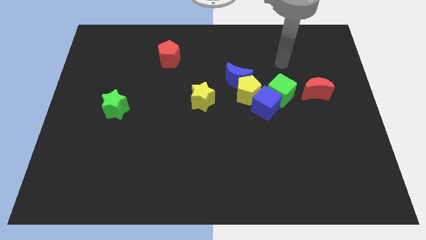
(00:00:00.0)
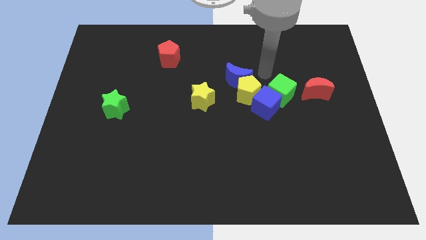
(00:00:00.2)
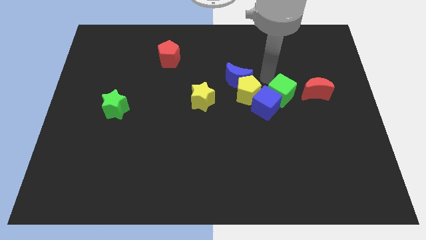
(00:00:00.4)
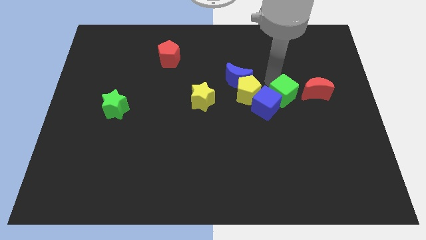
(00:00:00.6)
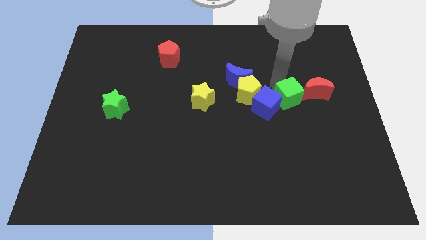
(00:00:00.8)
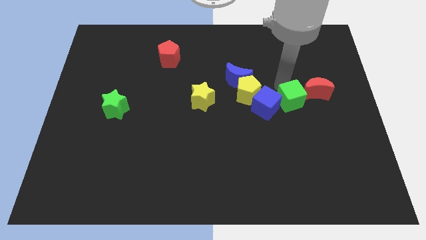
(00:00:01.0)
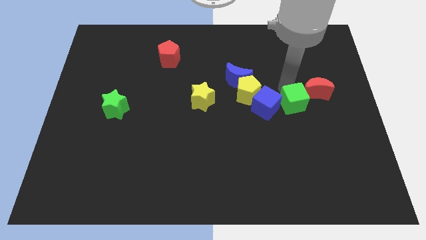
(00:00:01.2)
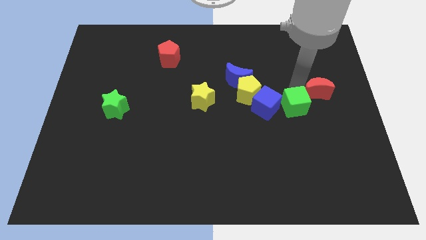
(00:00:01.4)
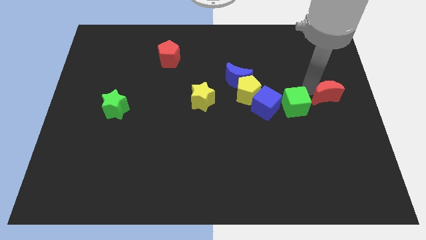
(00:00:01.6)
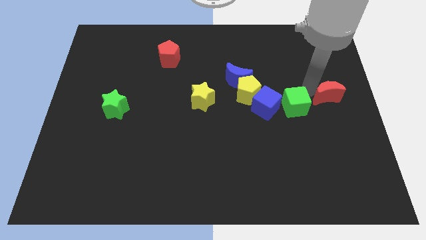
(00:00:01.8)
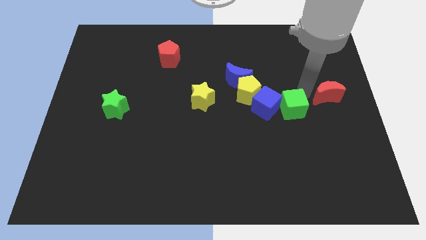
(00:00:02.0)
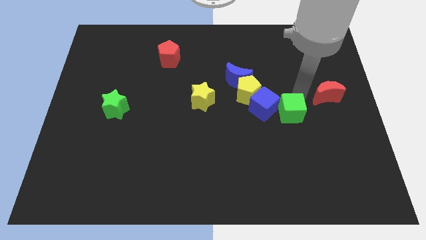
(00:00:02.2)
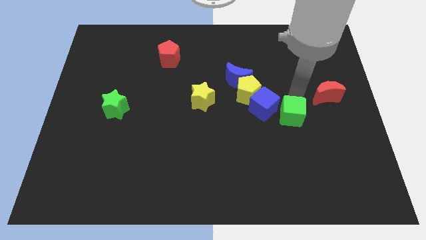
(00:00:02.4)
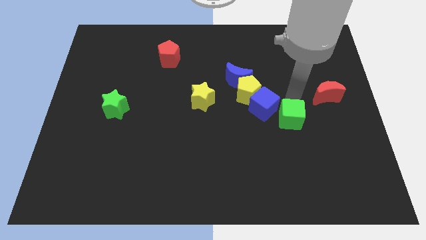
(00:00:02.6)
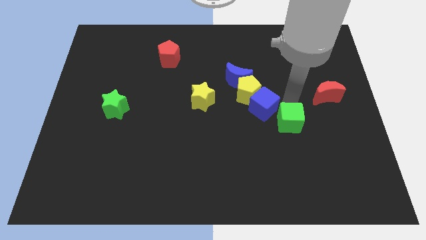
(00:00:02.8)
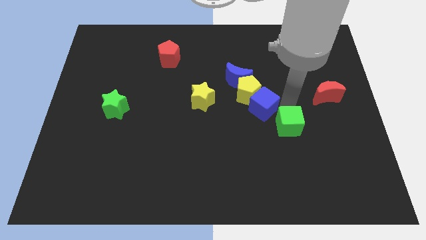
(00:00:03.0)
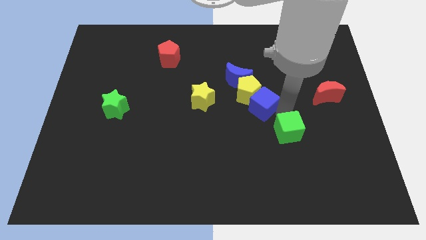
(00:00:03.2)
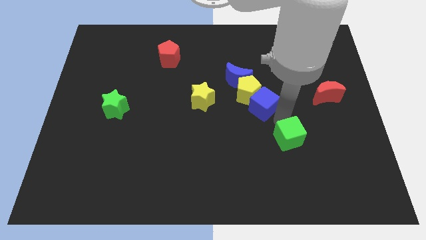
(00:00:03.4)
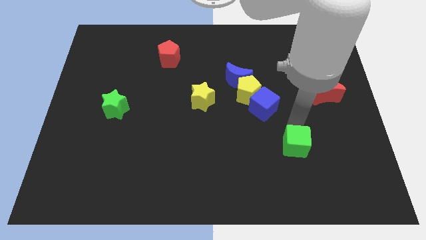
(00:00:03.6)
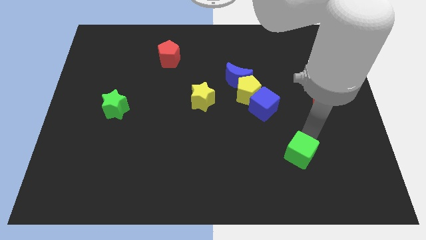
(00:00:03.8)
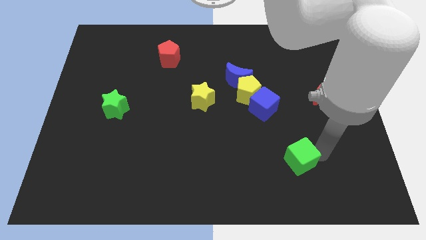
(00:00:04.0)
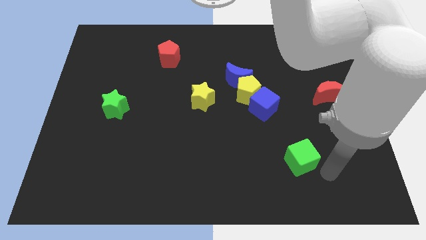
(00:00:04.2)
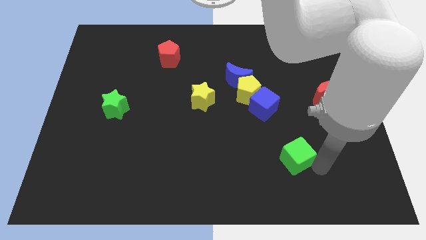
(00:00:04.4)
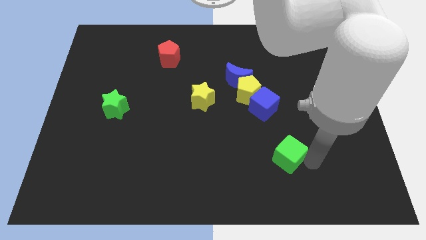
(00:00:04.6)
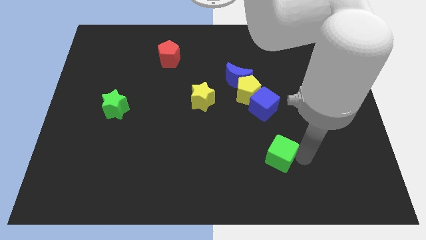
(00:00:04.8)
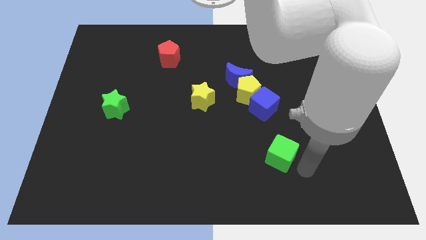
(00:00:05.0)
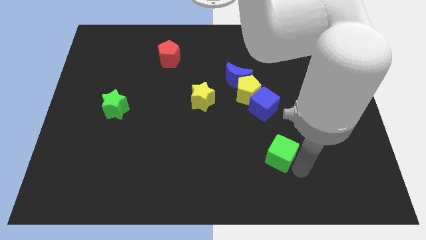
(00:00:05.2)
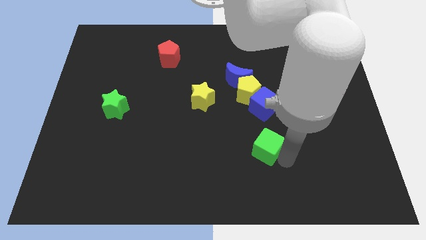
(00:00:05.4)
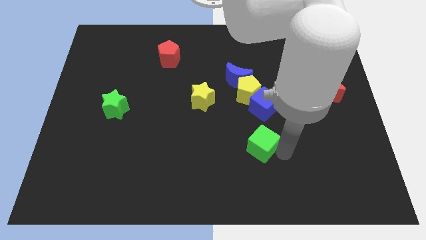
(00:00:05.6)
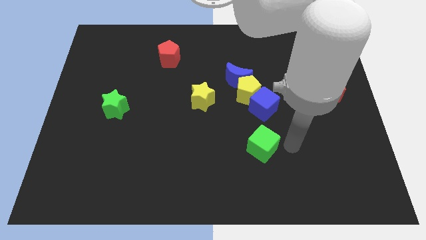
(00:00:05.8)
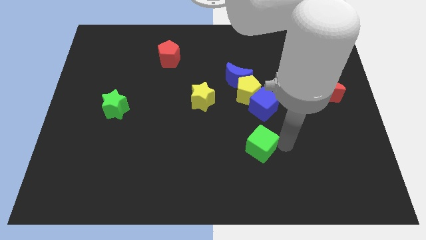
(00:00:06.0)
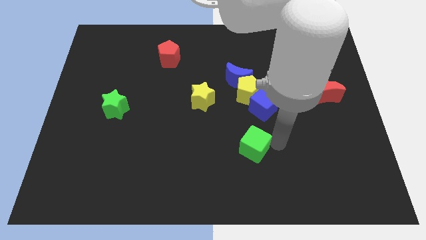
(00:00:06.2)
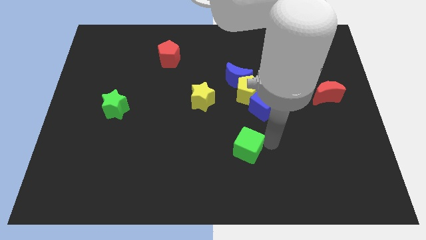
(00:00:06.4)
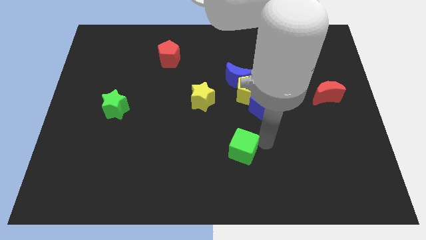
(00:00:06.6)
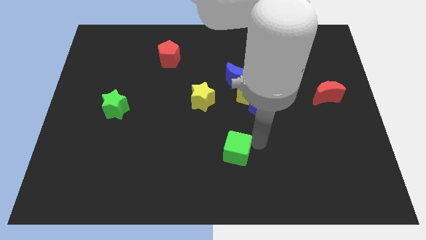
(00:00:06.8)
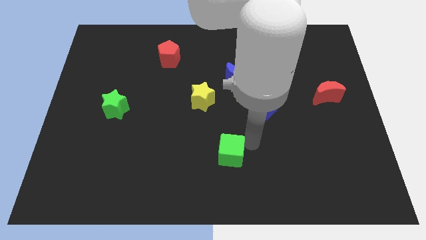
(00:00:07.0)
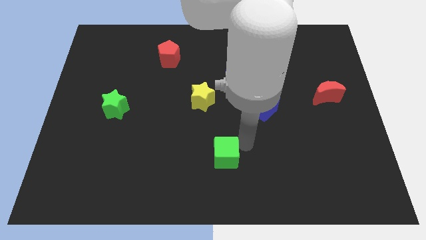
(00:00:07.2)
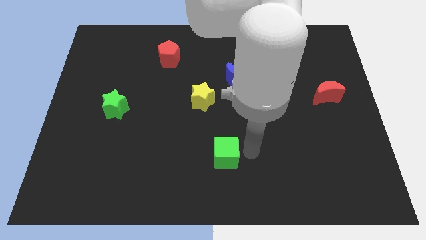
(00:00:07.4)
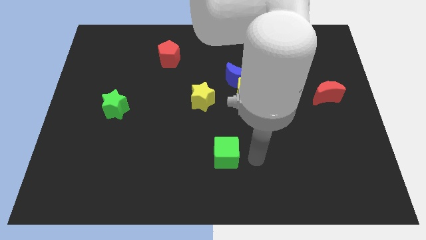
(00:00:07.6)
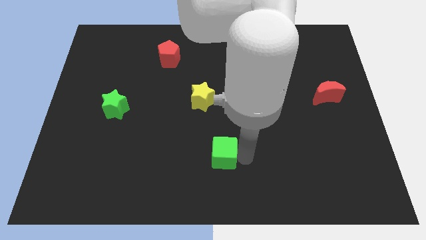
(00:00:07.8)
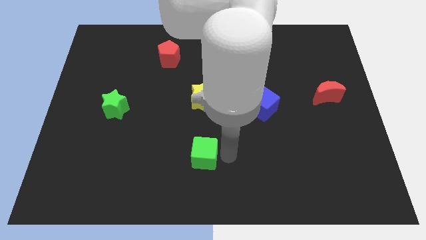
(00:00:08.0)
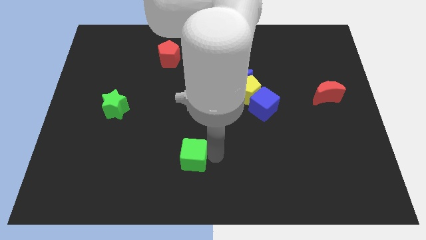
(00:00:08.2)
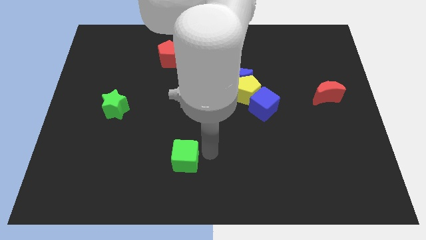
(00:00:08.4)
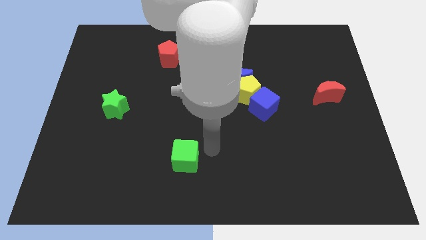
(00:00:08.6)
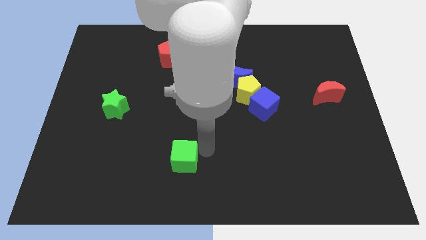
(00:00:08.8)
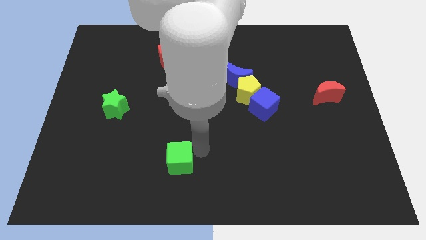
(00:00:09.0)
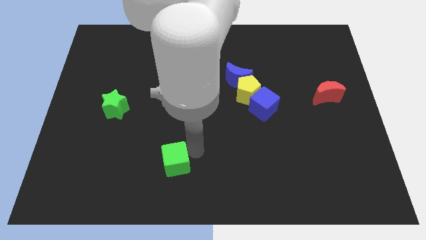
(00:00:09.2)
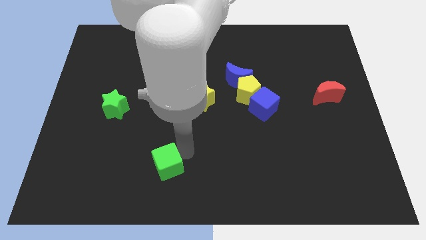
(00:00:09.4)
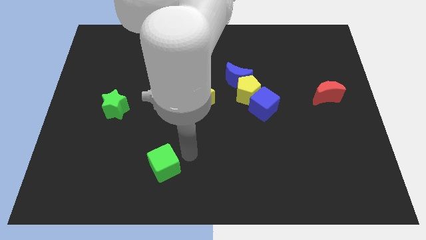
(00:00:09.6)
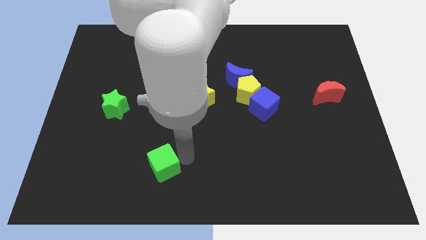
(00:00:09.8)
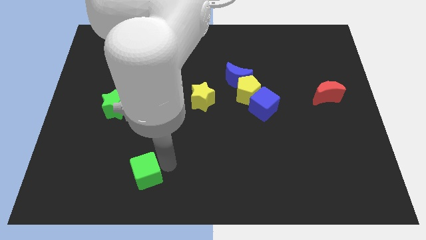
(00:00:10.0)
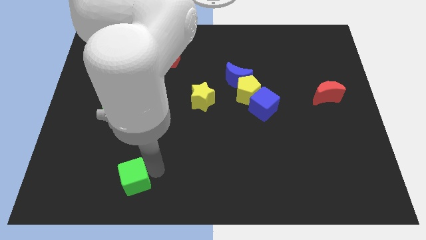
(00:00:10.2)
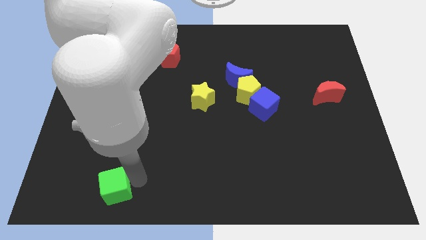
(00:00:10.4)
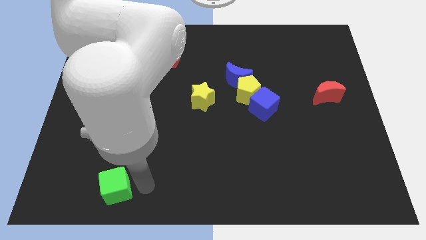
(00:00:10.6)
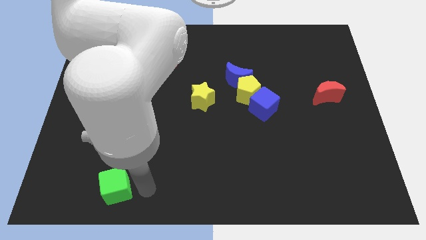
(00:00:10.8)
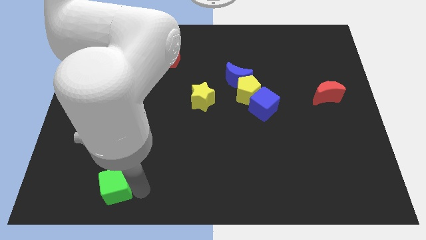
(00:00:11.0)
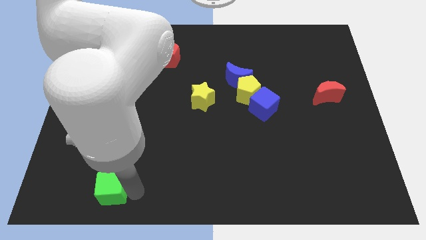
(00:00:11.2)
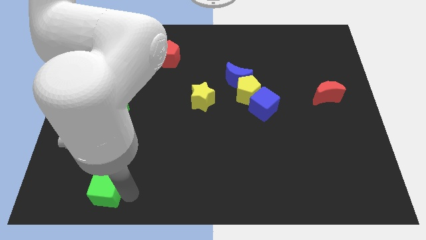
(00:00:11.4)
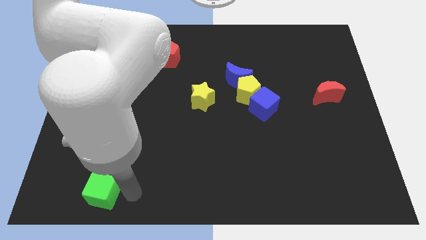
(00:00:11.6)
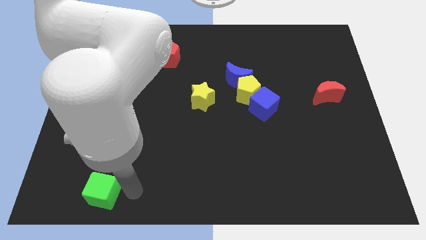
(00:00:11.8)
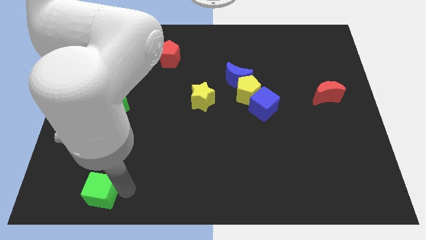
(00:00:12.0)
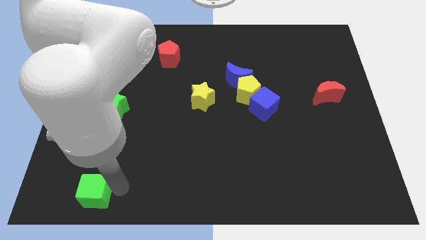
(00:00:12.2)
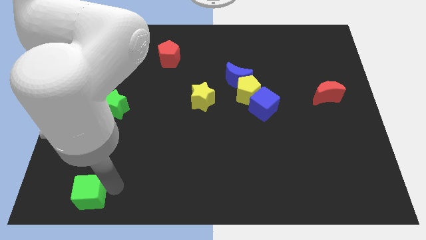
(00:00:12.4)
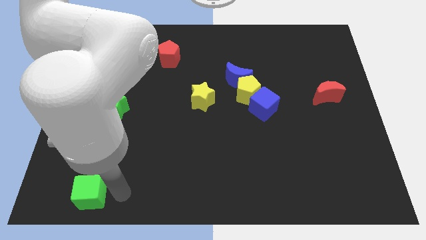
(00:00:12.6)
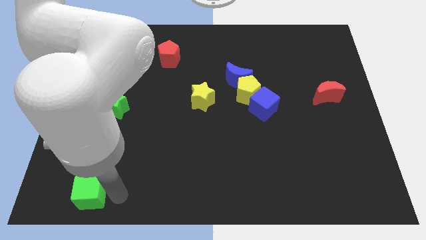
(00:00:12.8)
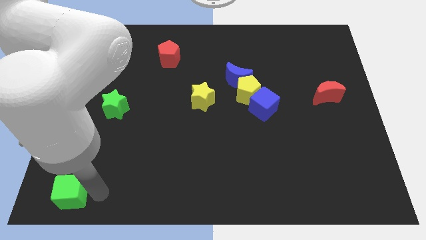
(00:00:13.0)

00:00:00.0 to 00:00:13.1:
push the green cube to the bottom left
